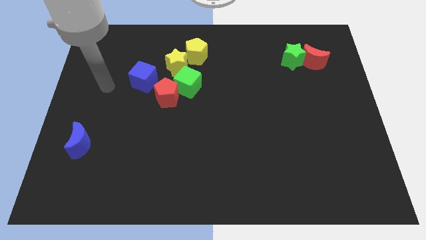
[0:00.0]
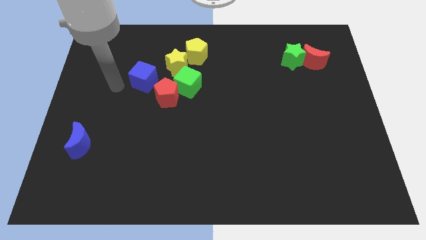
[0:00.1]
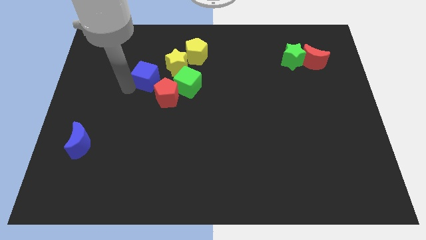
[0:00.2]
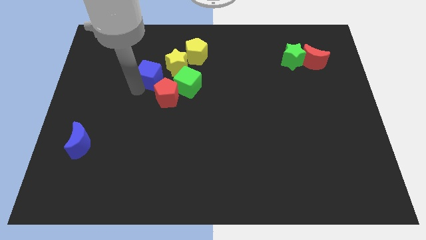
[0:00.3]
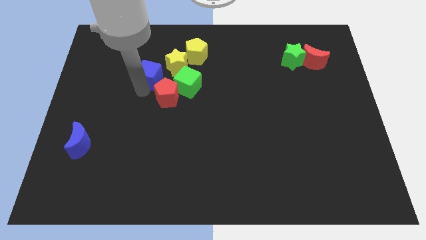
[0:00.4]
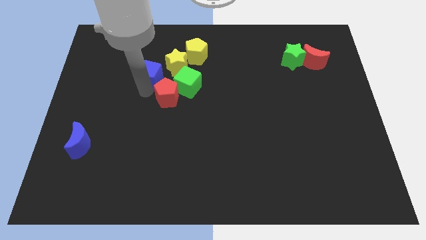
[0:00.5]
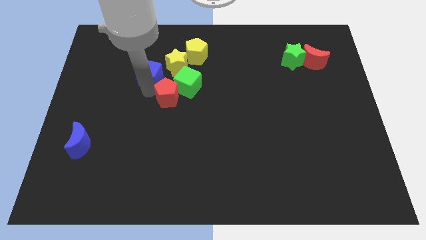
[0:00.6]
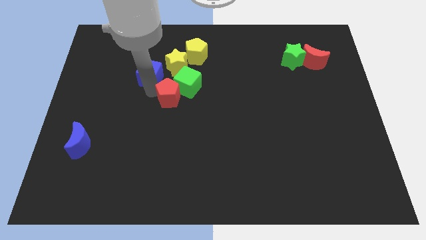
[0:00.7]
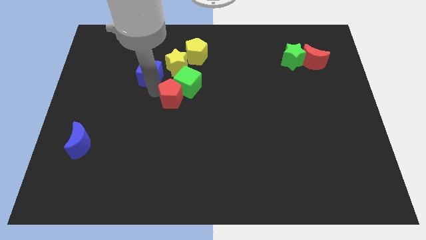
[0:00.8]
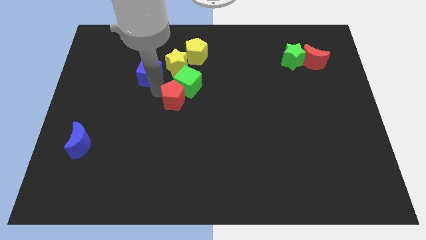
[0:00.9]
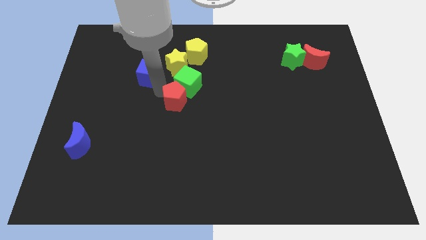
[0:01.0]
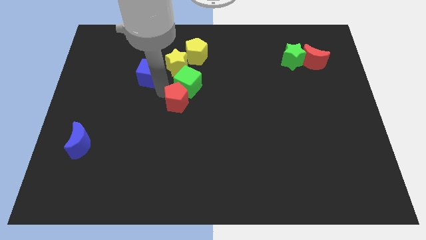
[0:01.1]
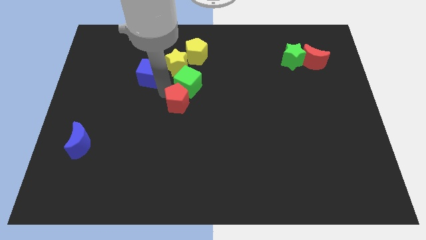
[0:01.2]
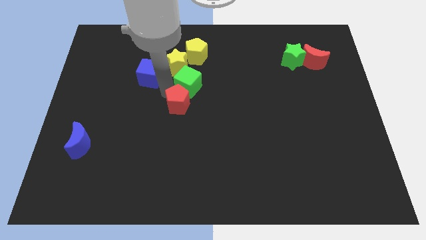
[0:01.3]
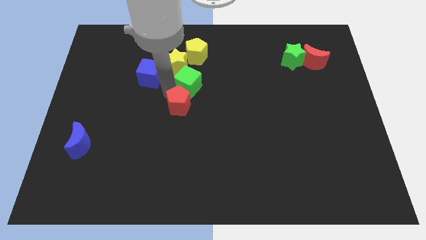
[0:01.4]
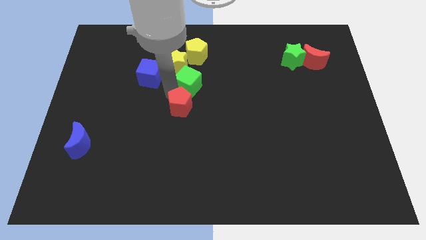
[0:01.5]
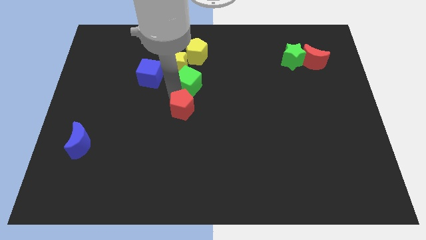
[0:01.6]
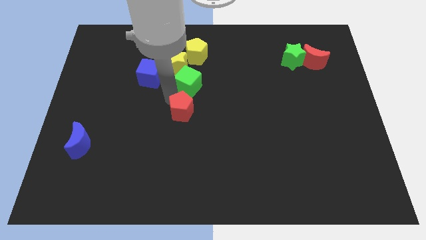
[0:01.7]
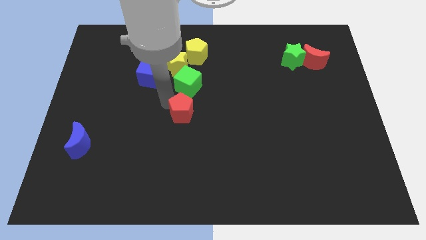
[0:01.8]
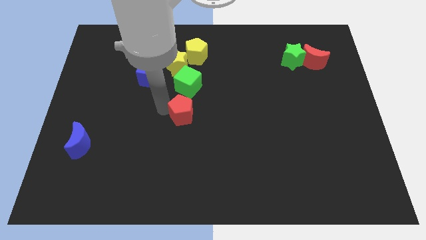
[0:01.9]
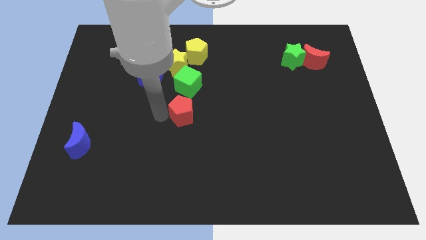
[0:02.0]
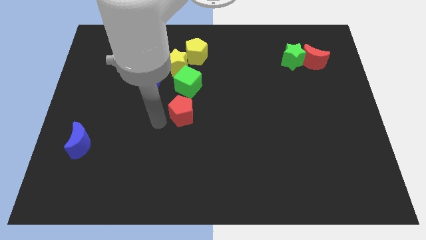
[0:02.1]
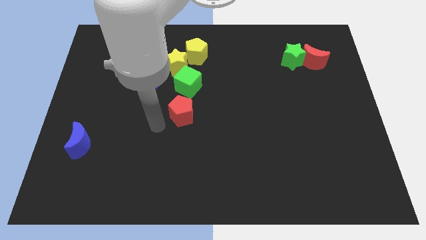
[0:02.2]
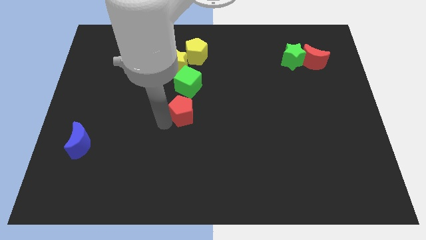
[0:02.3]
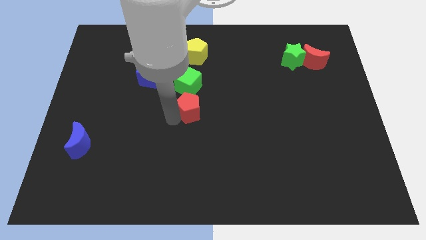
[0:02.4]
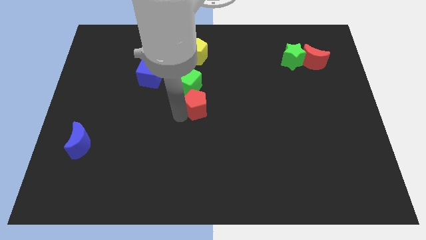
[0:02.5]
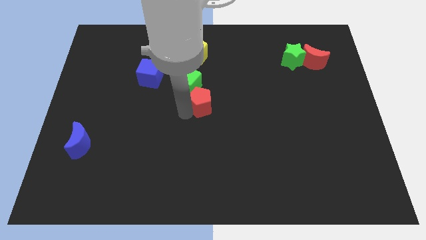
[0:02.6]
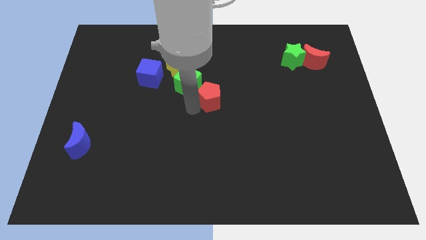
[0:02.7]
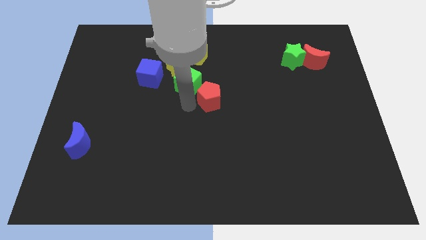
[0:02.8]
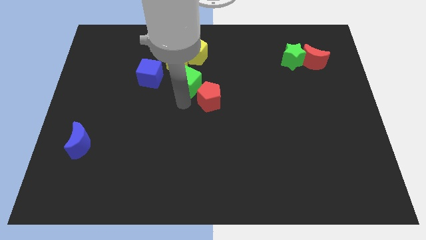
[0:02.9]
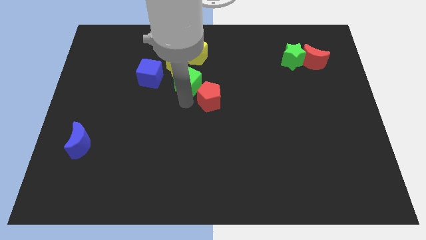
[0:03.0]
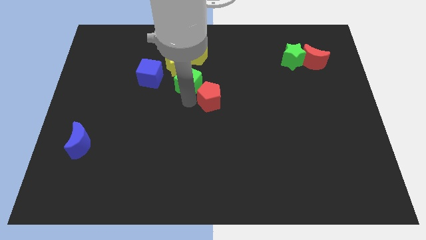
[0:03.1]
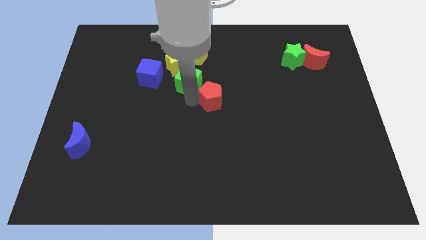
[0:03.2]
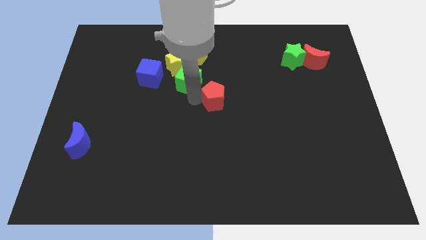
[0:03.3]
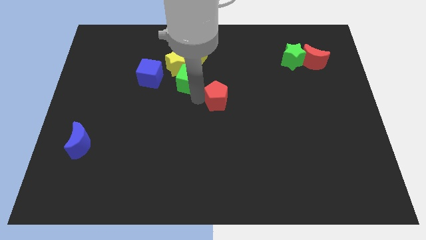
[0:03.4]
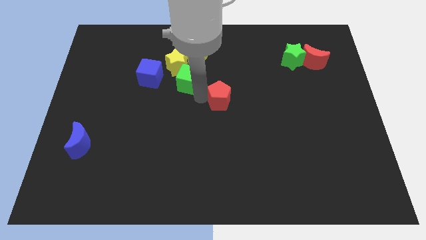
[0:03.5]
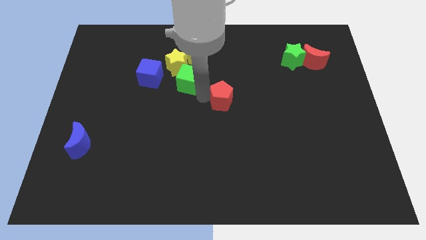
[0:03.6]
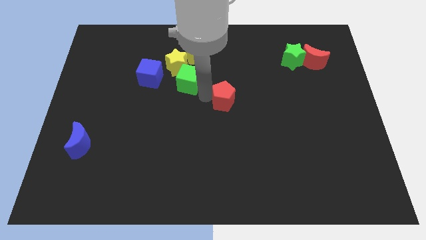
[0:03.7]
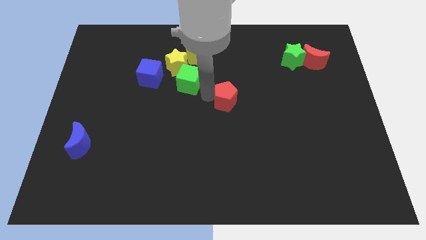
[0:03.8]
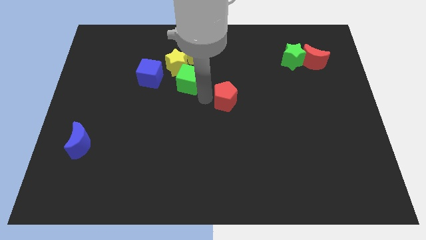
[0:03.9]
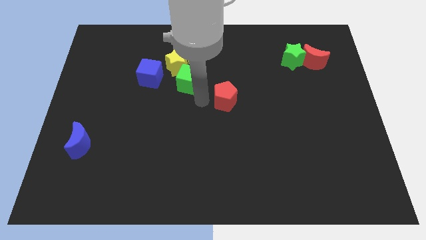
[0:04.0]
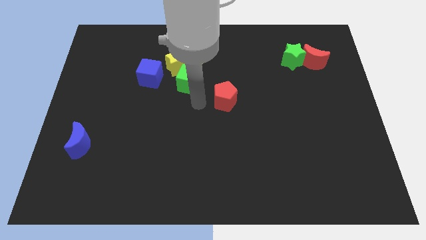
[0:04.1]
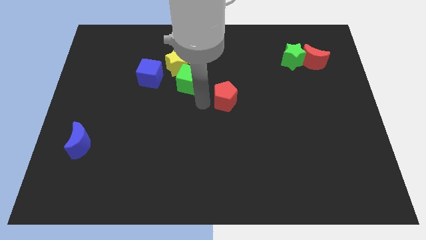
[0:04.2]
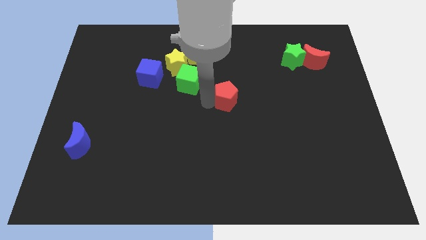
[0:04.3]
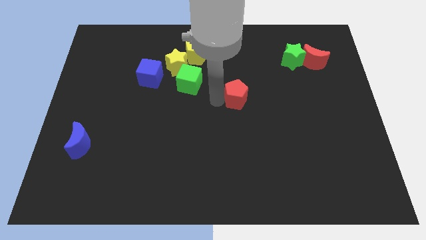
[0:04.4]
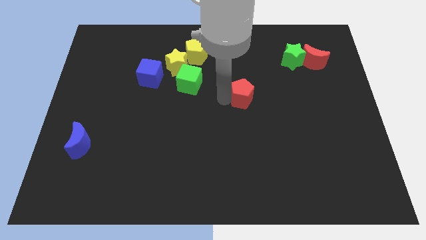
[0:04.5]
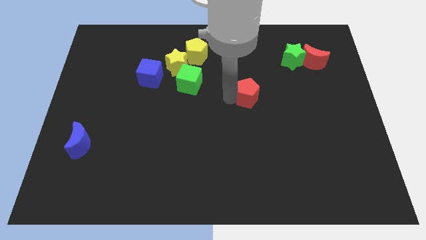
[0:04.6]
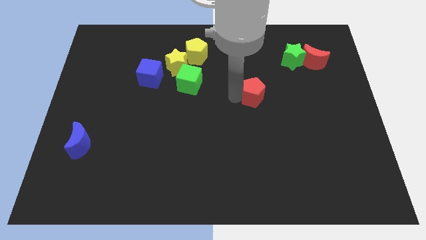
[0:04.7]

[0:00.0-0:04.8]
move the red pentagon right

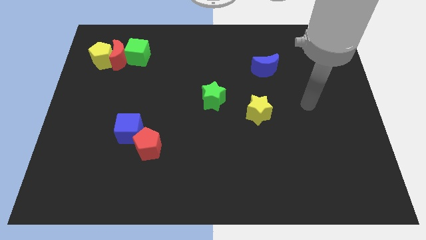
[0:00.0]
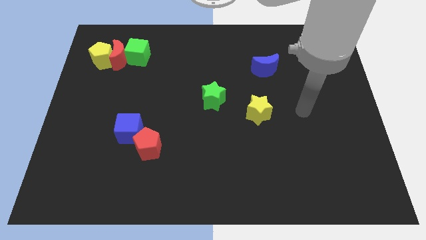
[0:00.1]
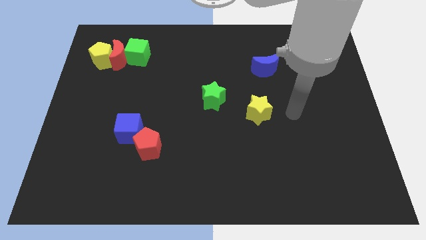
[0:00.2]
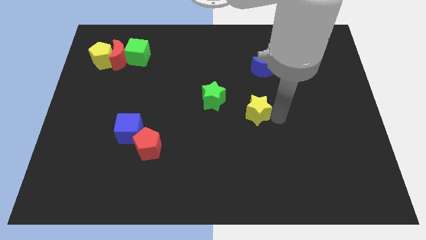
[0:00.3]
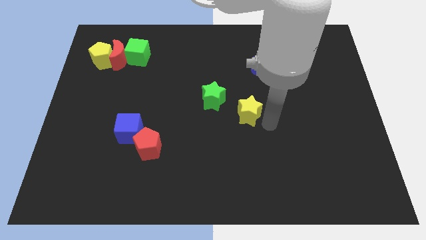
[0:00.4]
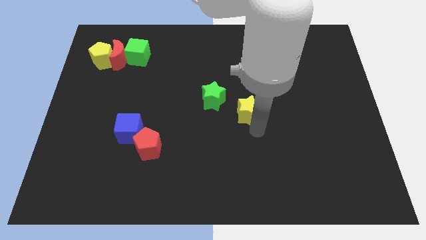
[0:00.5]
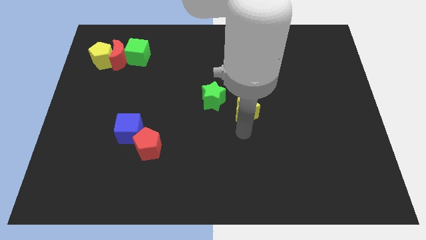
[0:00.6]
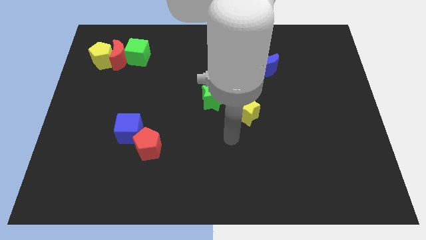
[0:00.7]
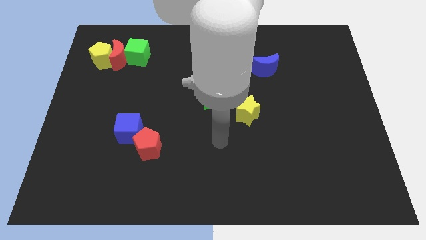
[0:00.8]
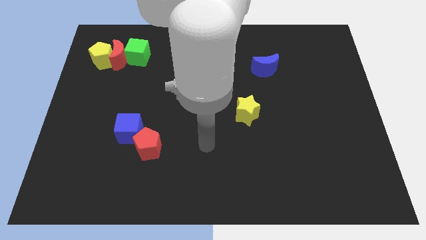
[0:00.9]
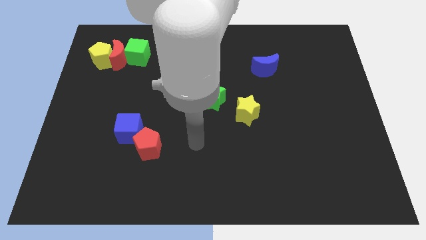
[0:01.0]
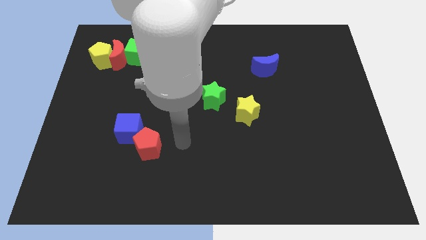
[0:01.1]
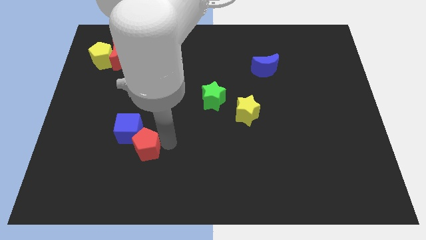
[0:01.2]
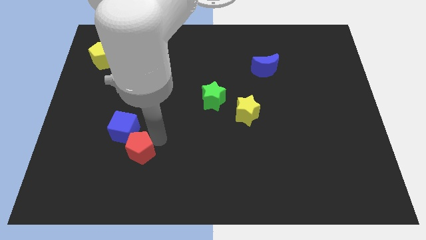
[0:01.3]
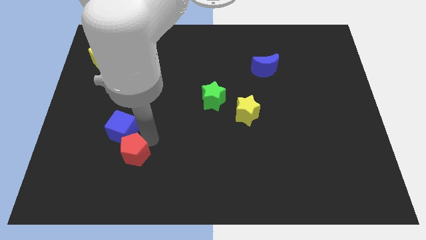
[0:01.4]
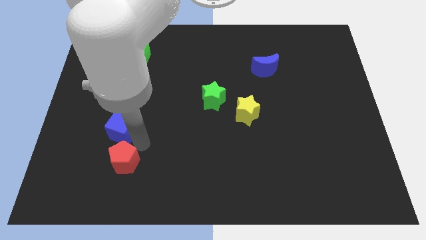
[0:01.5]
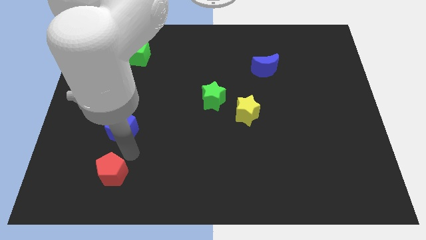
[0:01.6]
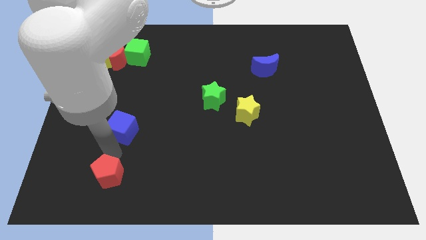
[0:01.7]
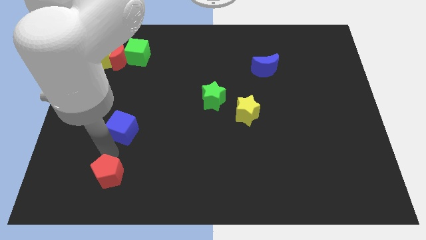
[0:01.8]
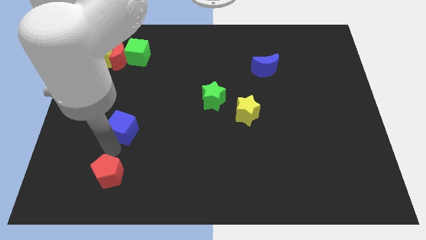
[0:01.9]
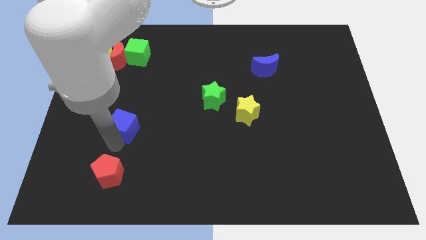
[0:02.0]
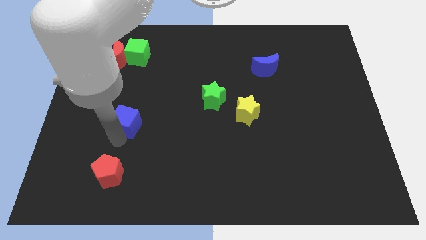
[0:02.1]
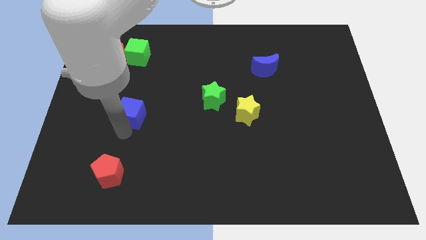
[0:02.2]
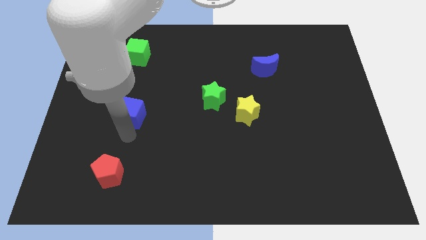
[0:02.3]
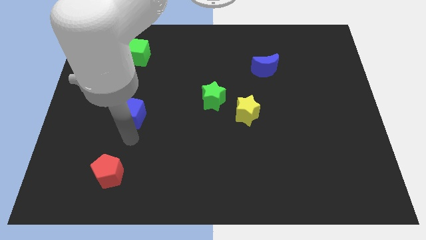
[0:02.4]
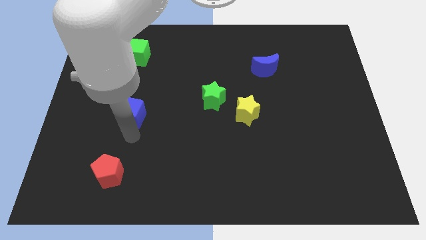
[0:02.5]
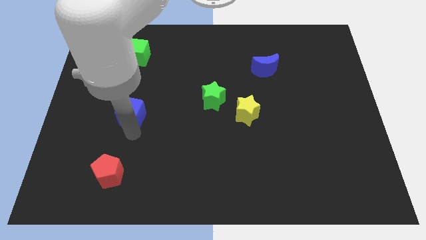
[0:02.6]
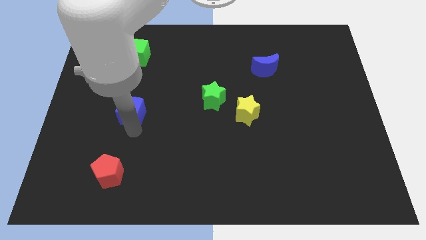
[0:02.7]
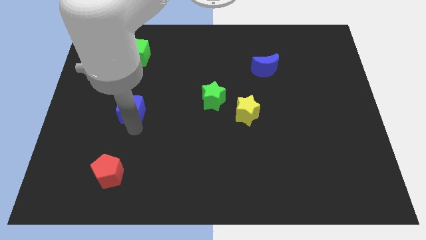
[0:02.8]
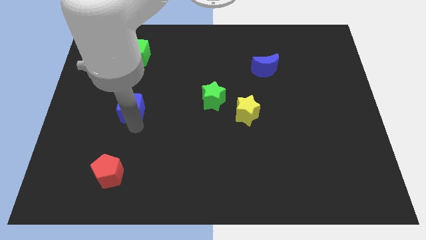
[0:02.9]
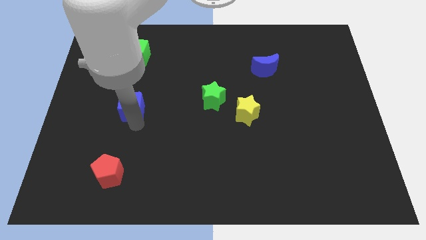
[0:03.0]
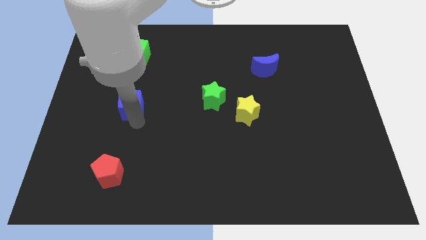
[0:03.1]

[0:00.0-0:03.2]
slightly push the blue cube upwards
